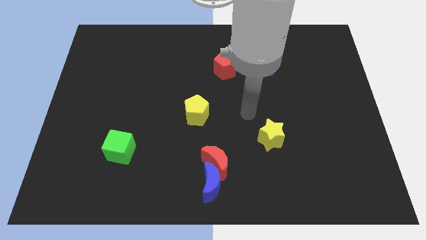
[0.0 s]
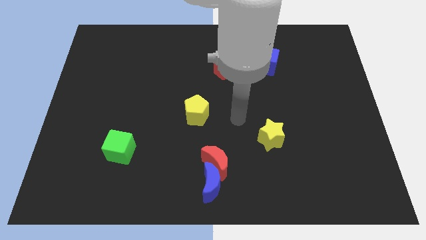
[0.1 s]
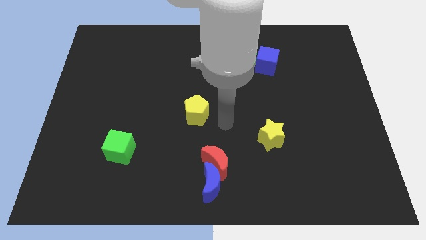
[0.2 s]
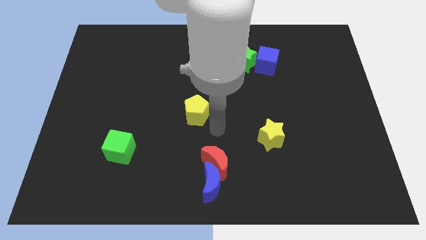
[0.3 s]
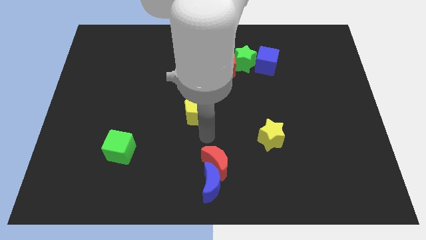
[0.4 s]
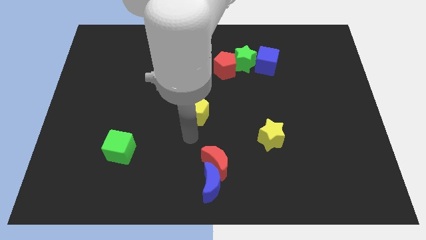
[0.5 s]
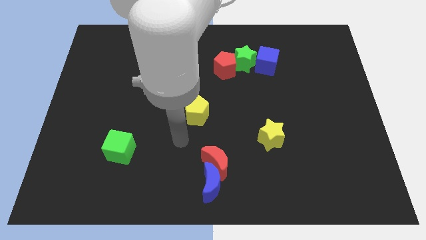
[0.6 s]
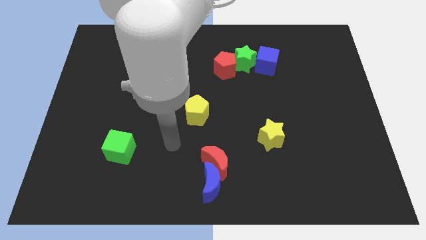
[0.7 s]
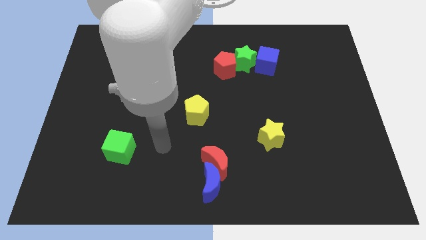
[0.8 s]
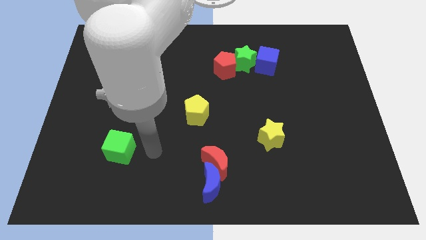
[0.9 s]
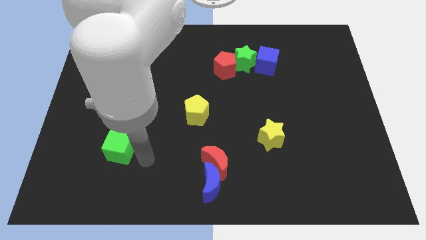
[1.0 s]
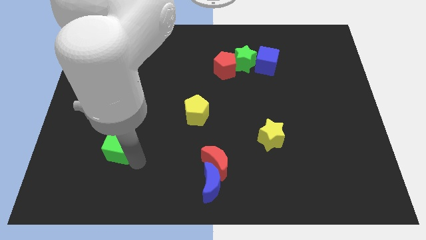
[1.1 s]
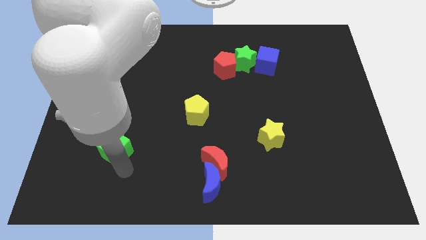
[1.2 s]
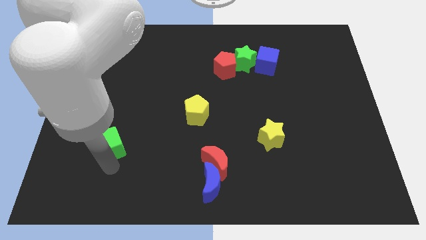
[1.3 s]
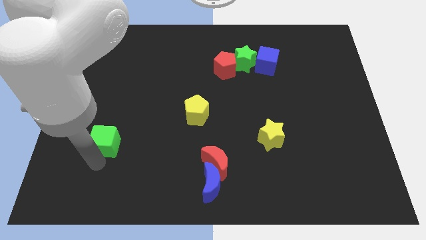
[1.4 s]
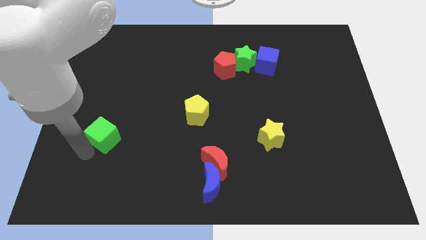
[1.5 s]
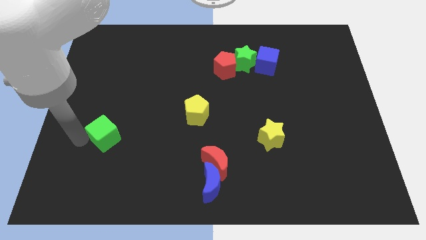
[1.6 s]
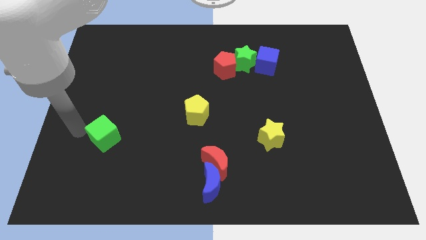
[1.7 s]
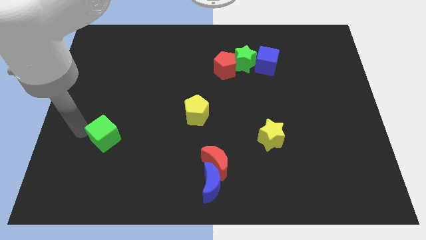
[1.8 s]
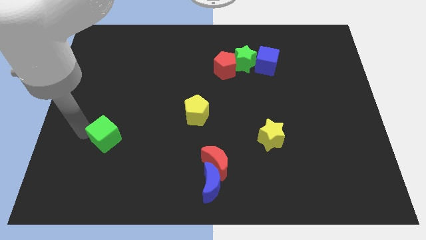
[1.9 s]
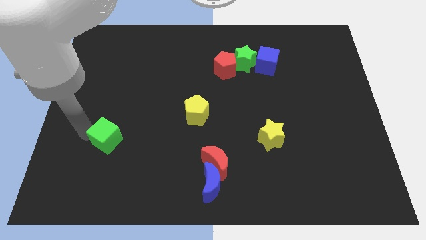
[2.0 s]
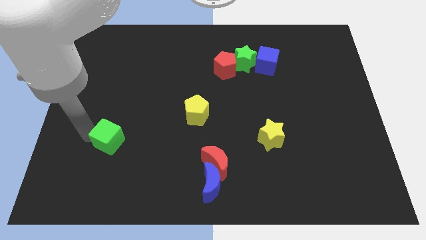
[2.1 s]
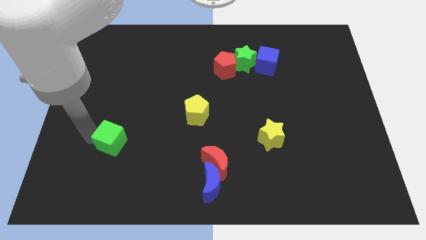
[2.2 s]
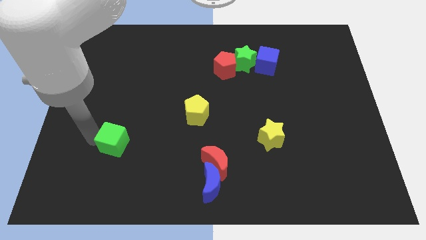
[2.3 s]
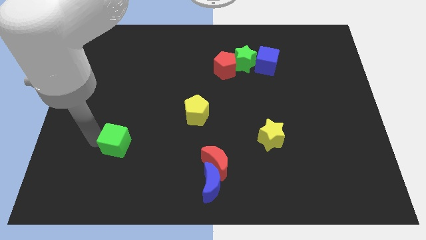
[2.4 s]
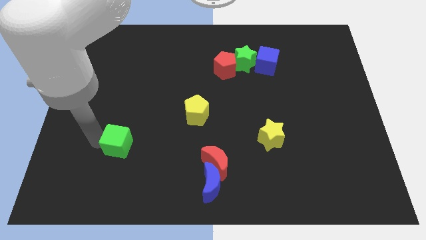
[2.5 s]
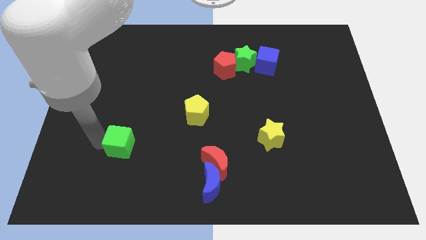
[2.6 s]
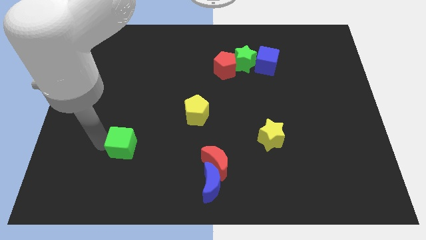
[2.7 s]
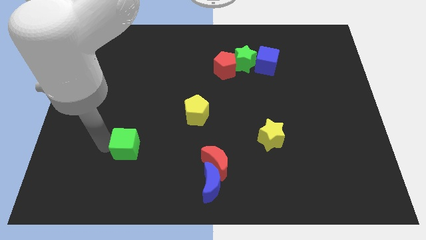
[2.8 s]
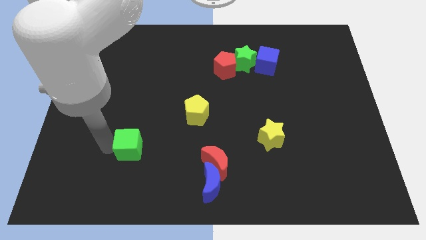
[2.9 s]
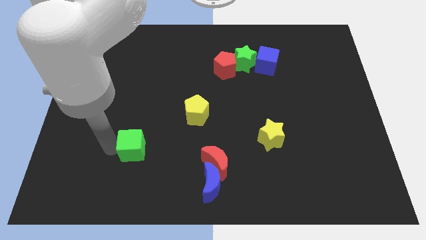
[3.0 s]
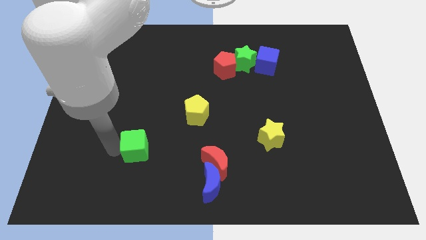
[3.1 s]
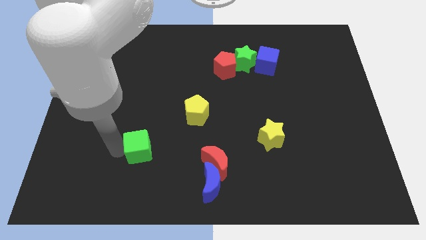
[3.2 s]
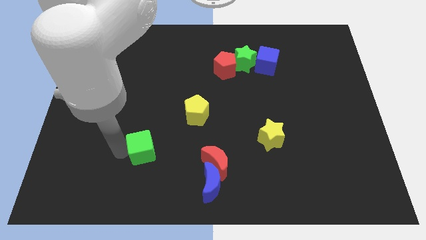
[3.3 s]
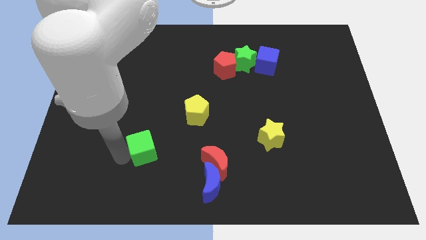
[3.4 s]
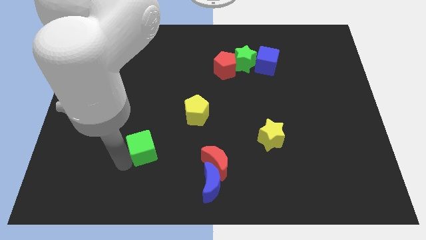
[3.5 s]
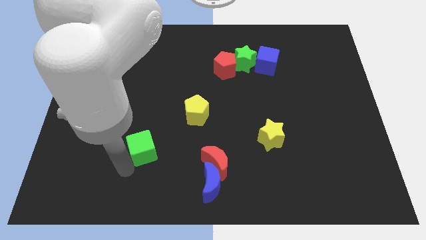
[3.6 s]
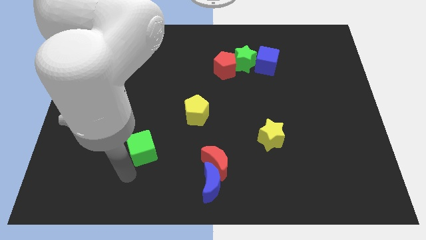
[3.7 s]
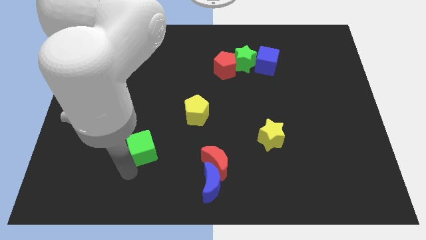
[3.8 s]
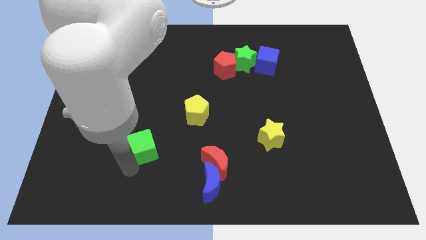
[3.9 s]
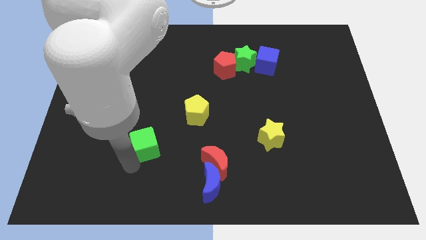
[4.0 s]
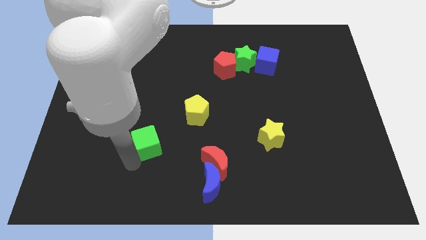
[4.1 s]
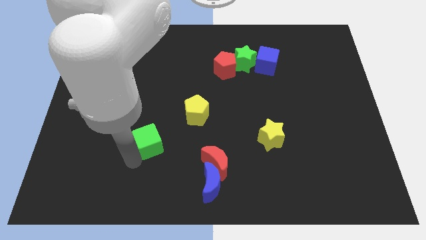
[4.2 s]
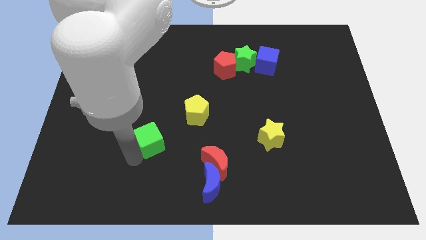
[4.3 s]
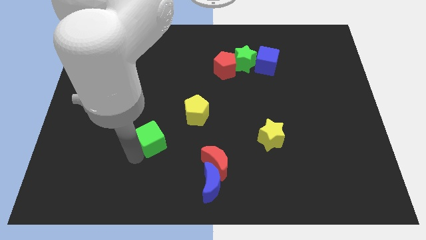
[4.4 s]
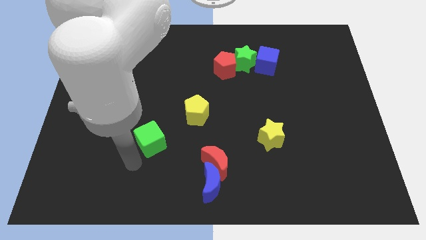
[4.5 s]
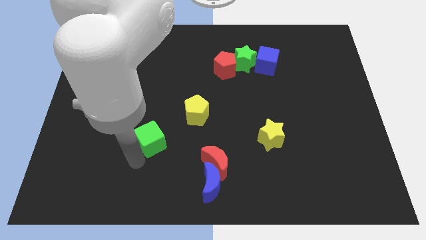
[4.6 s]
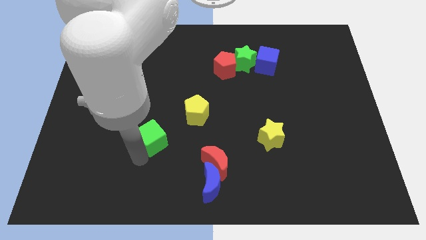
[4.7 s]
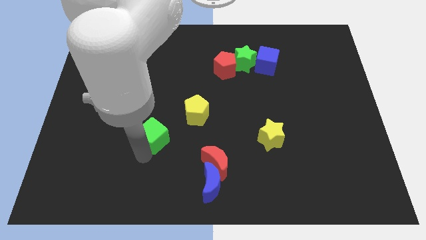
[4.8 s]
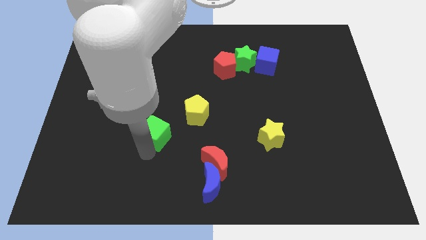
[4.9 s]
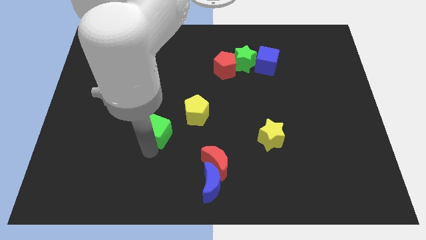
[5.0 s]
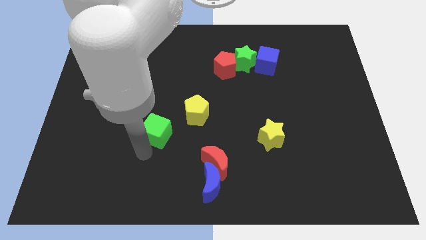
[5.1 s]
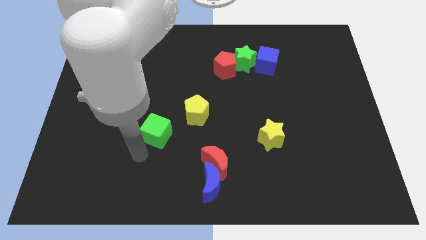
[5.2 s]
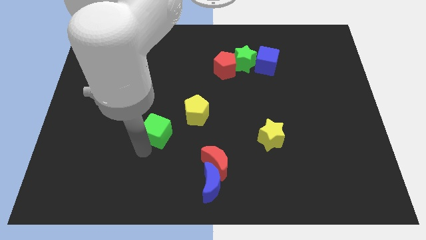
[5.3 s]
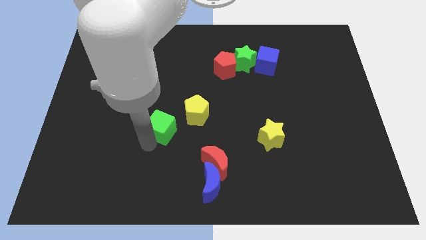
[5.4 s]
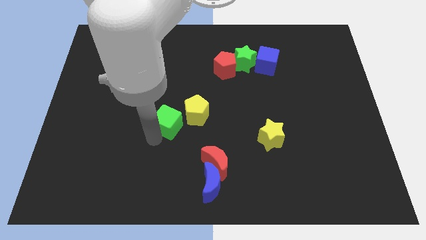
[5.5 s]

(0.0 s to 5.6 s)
move the green cube to the middle
